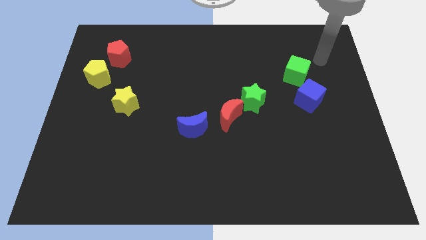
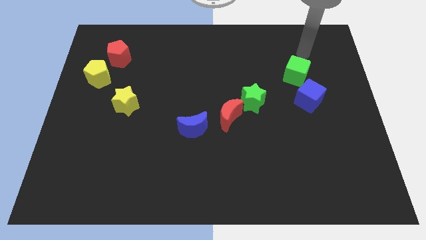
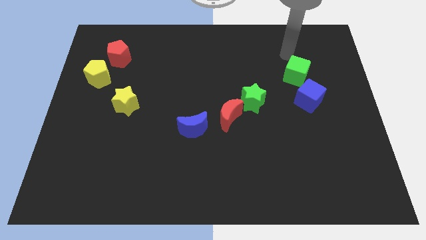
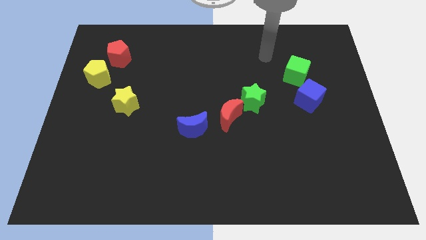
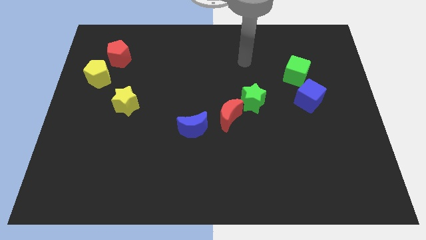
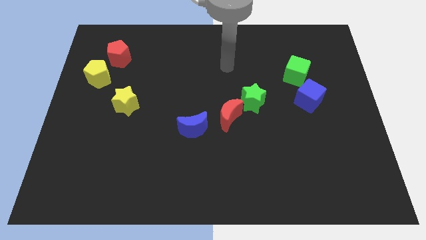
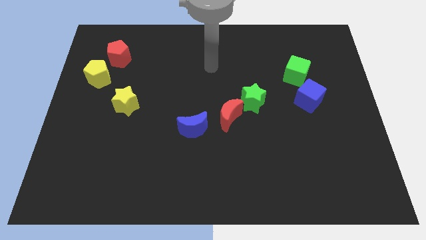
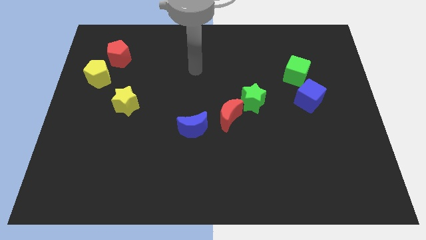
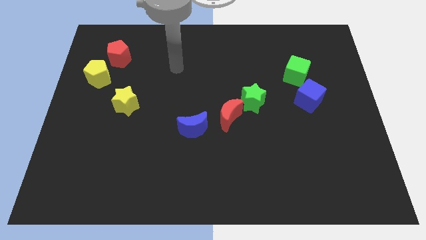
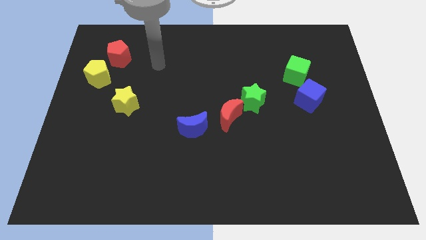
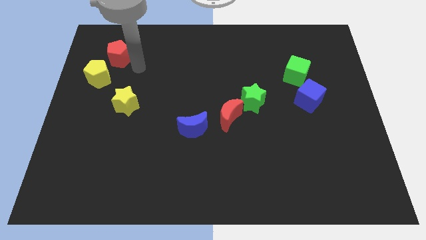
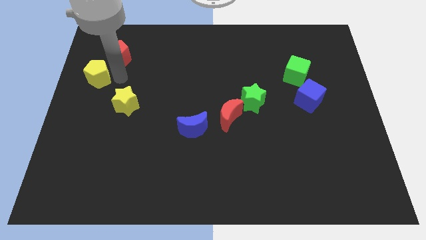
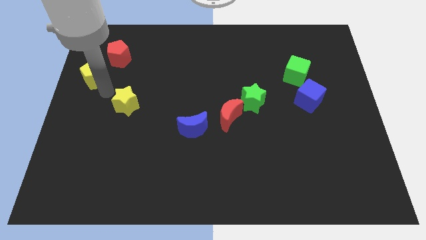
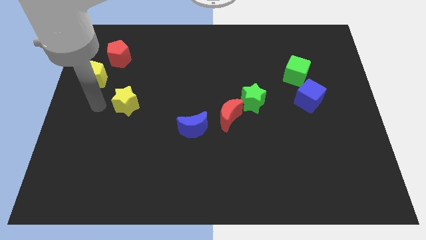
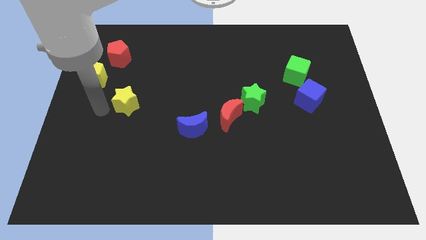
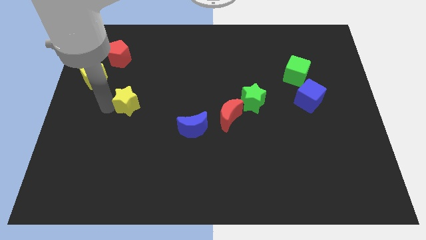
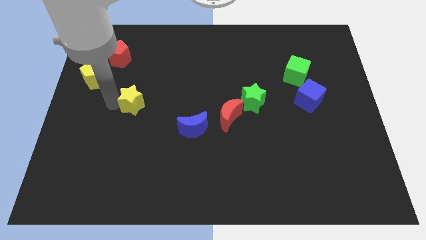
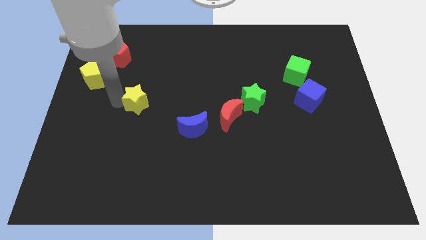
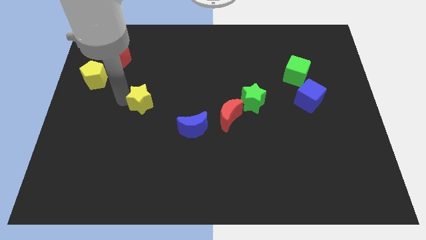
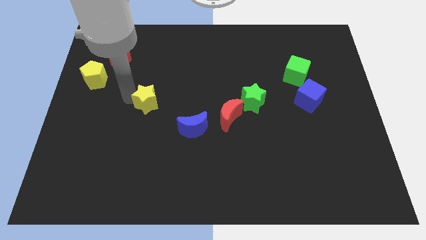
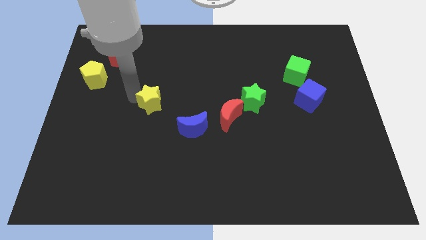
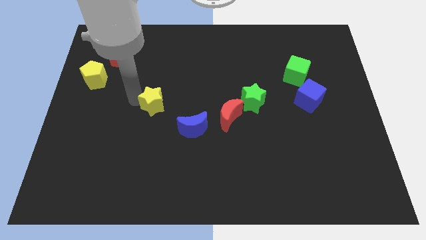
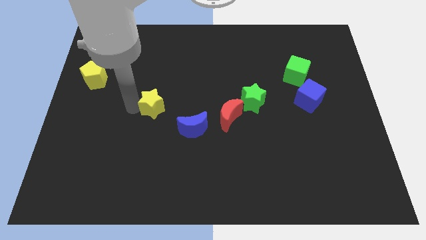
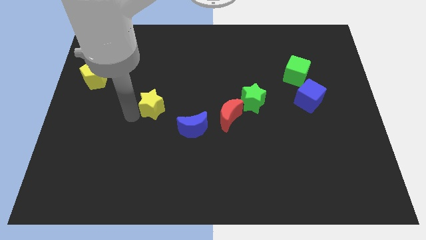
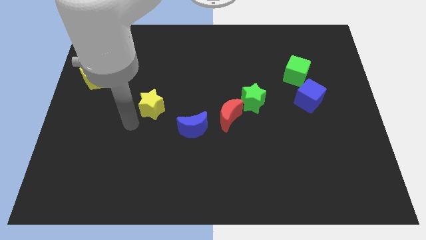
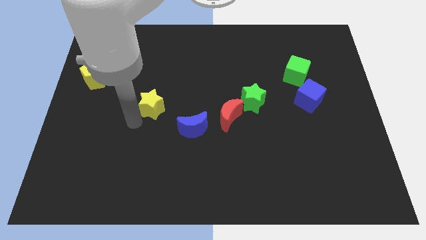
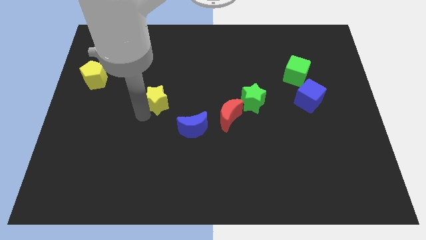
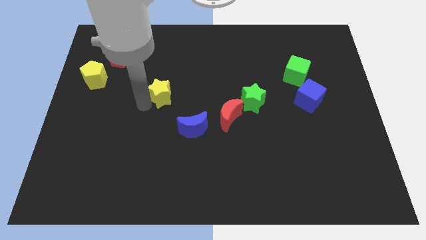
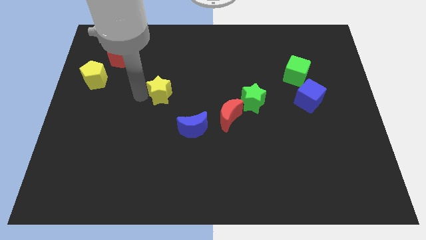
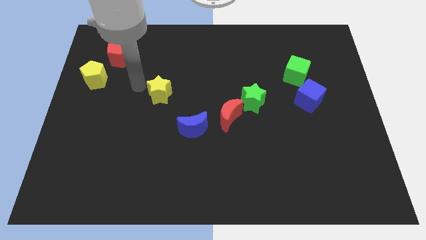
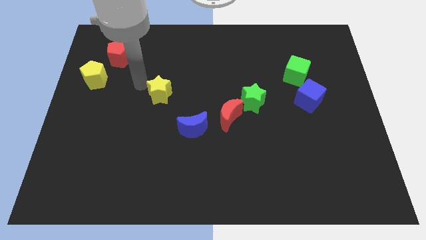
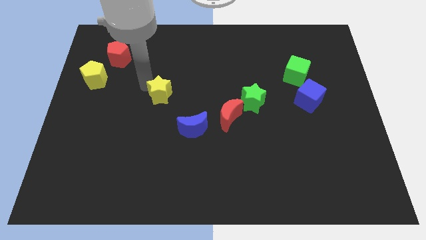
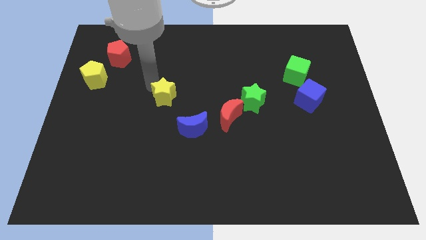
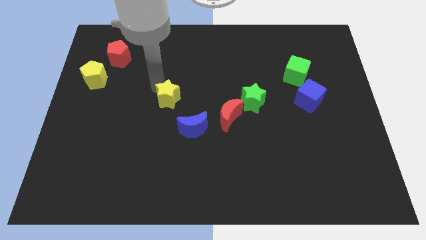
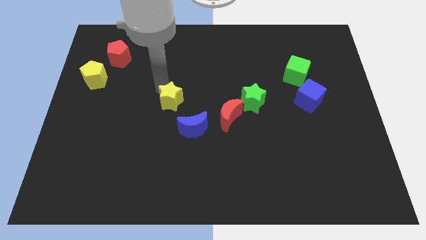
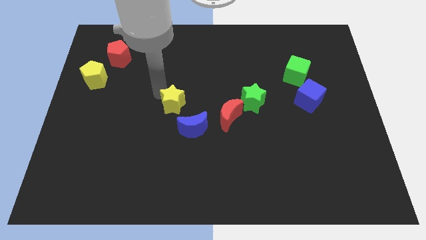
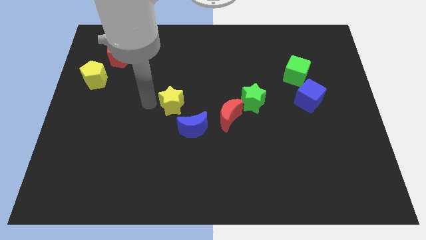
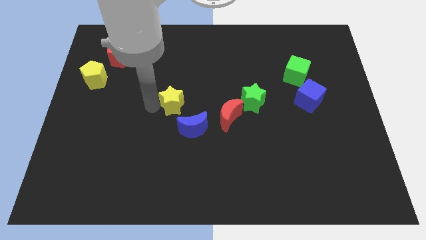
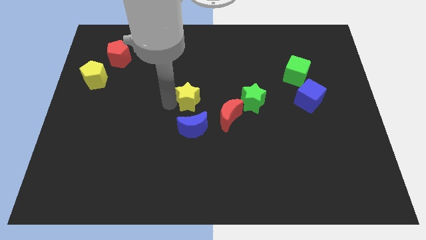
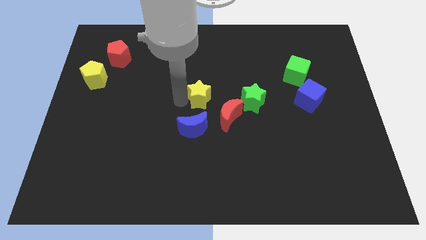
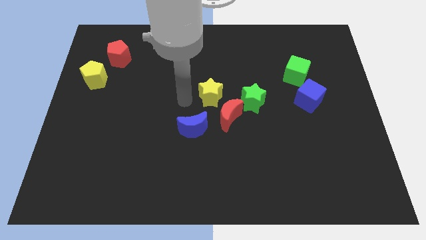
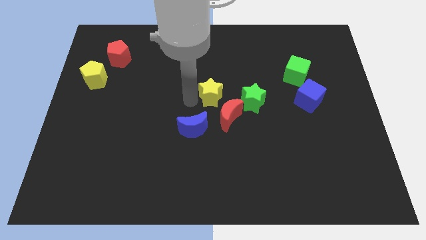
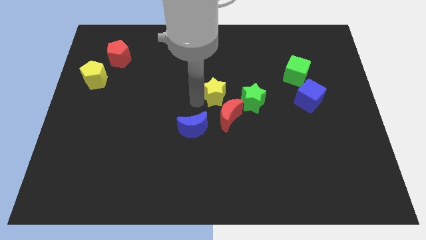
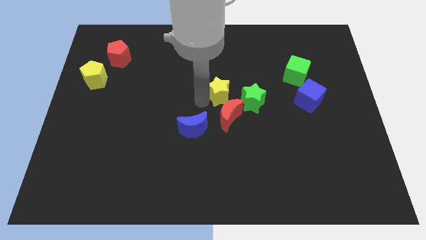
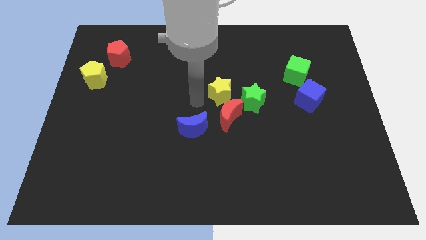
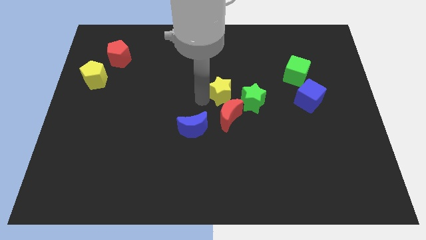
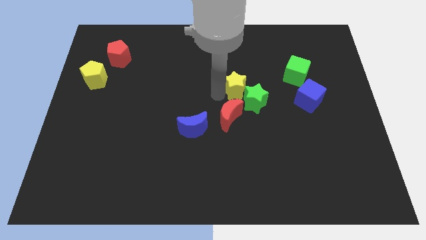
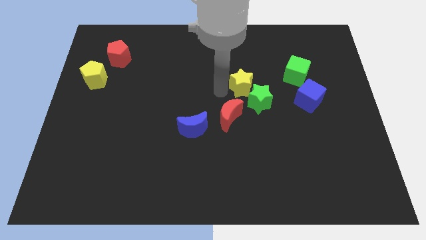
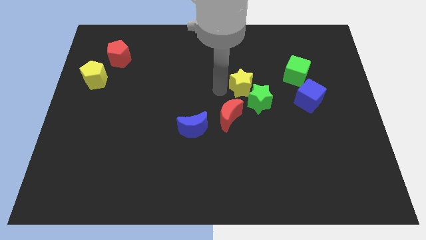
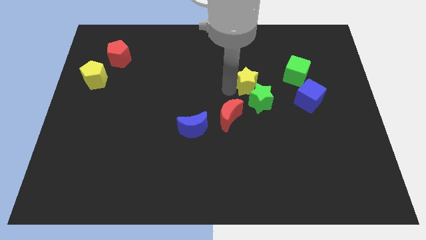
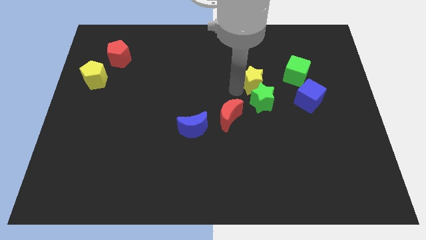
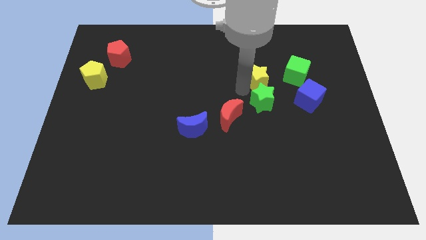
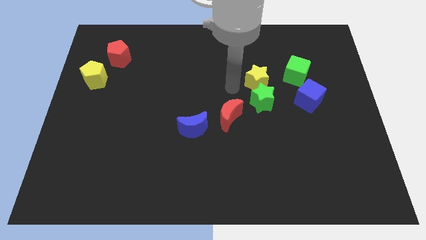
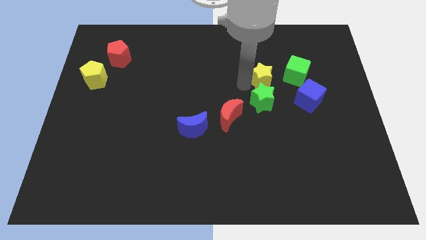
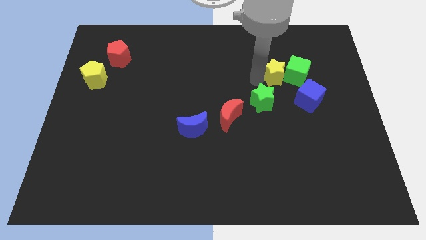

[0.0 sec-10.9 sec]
slide the yellow star to the green cube

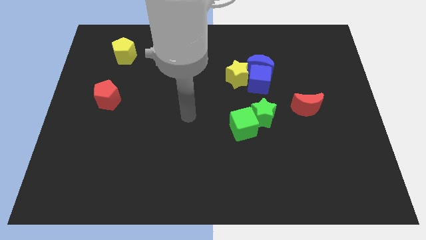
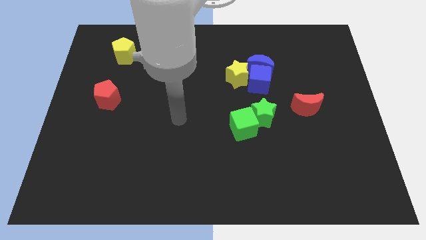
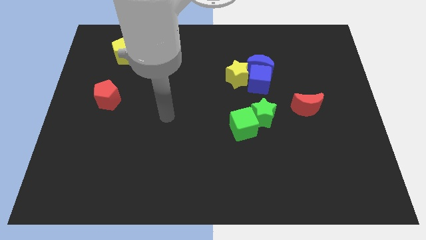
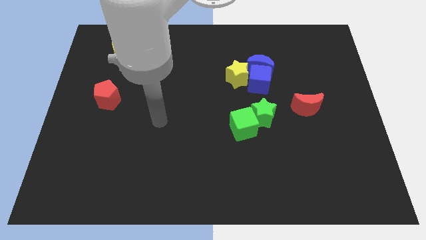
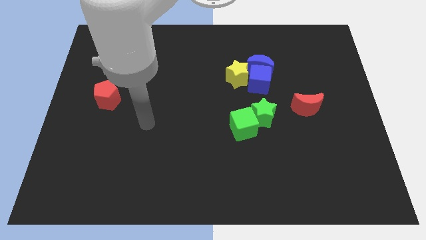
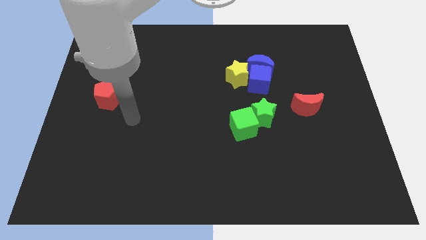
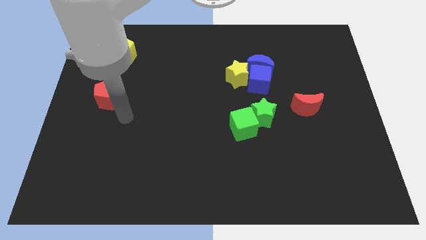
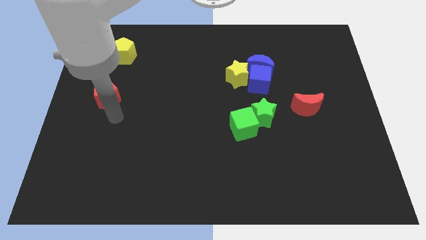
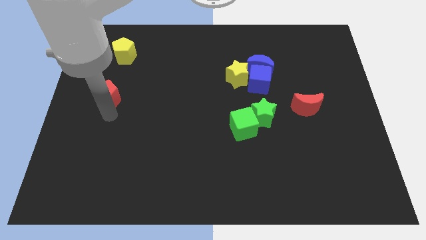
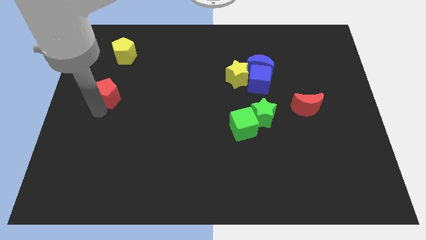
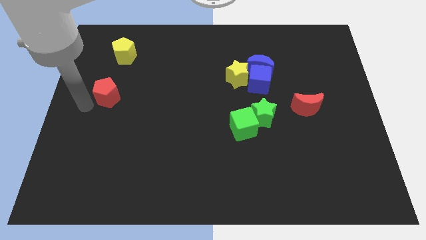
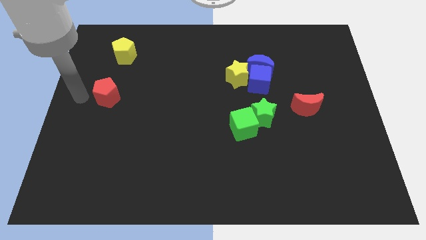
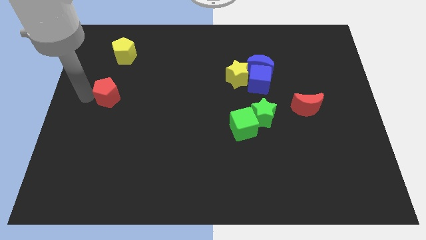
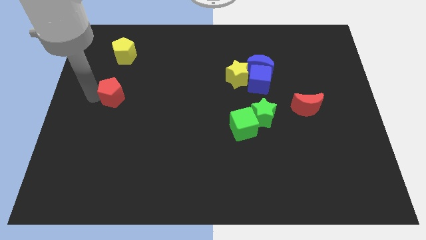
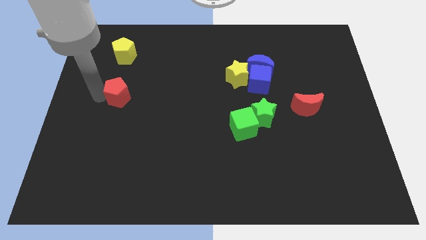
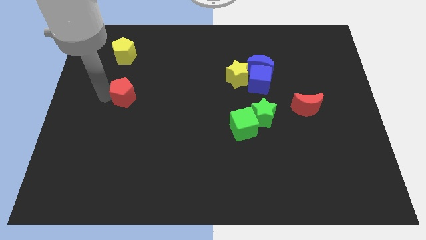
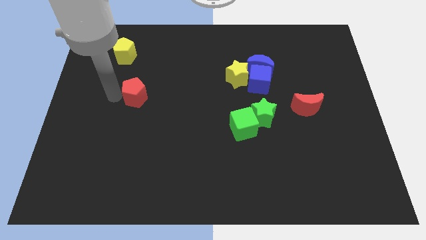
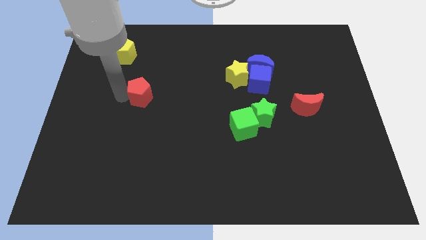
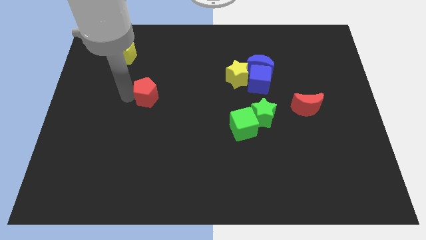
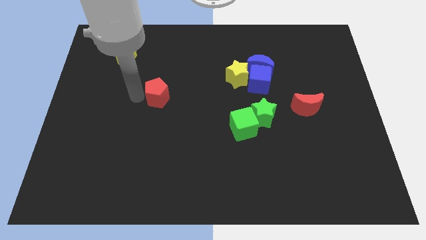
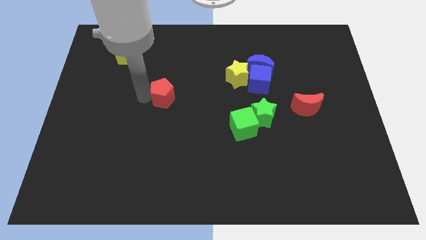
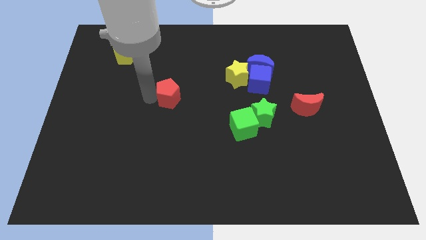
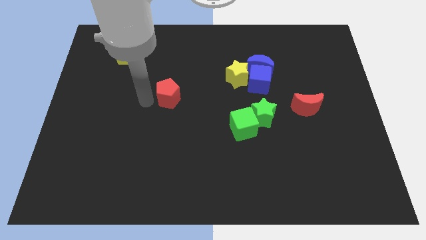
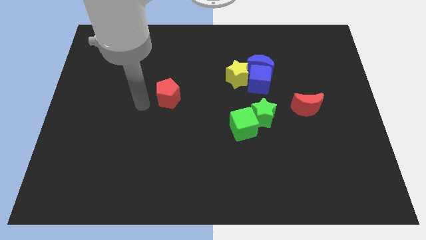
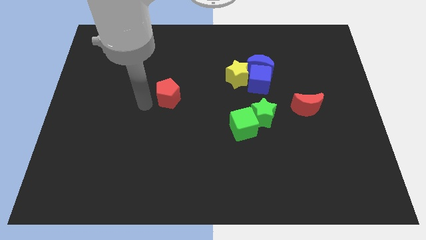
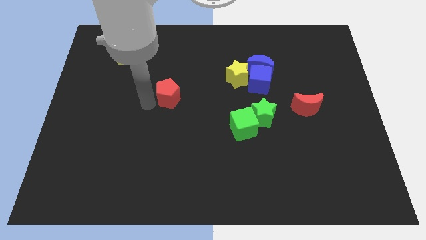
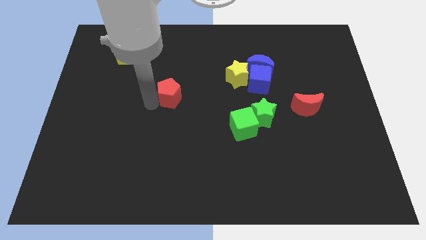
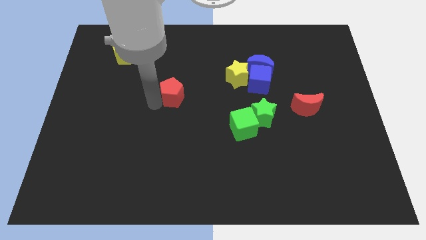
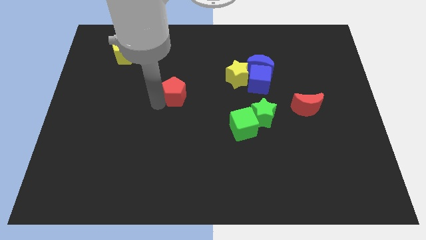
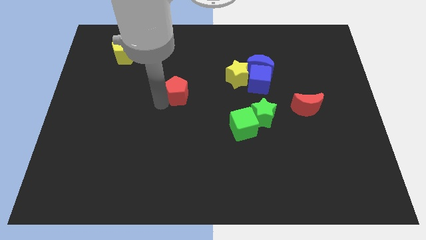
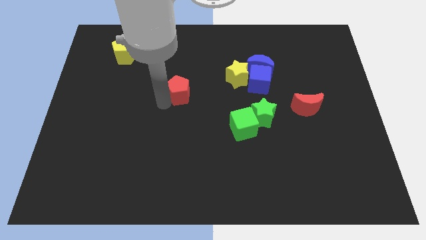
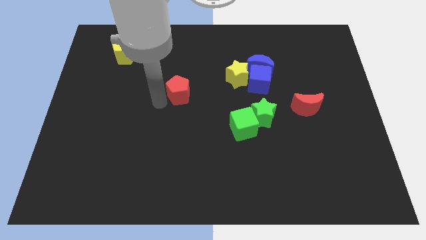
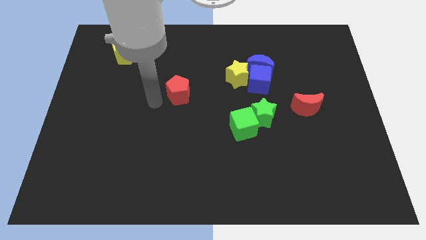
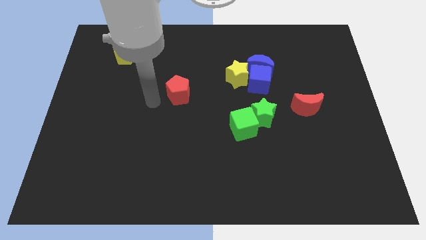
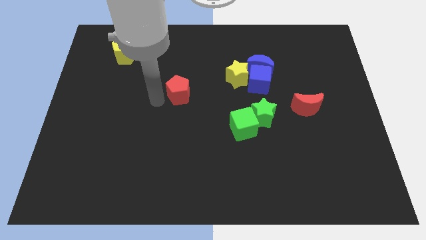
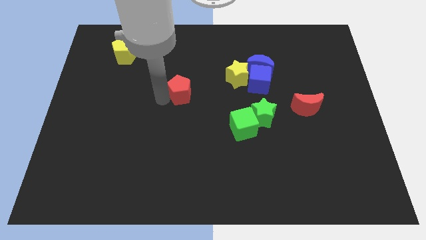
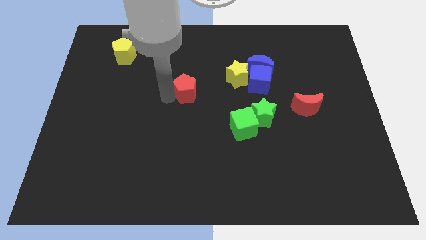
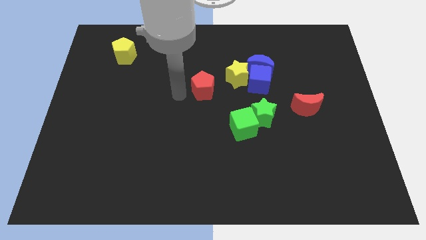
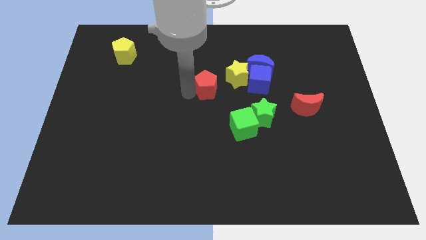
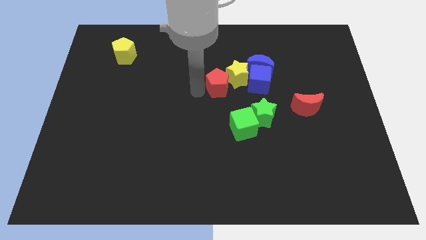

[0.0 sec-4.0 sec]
slide the red pentagon next to the yellow star
